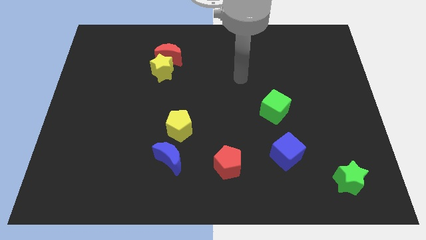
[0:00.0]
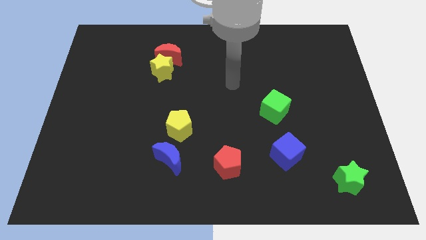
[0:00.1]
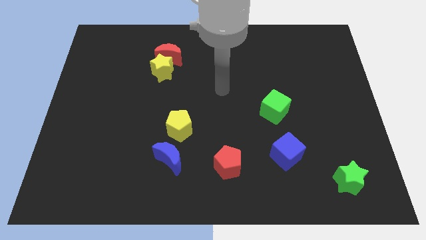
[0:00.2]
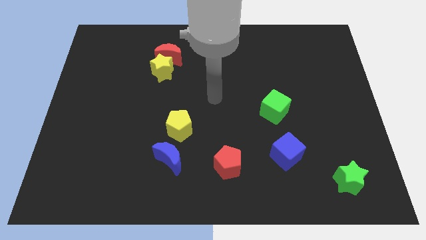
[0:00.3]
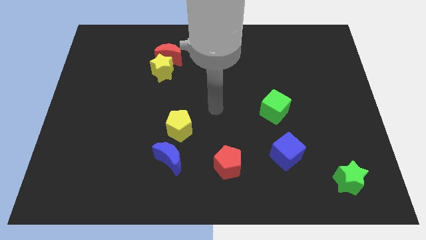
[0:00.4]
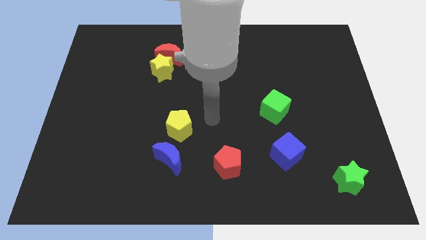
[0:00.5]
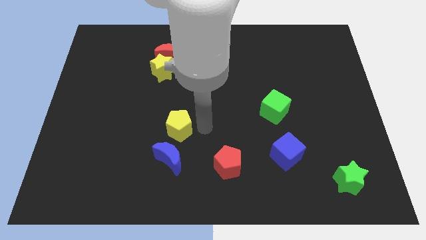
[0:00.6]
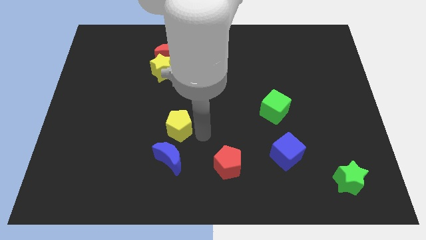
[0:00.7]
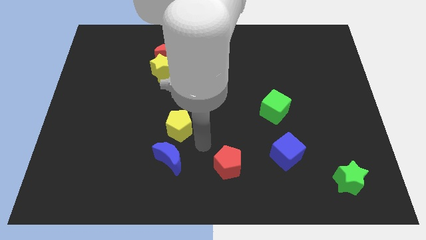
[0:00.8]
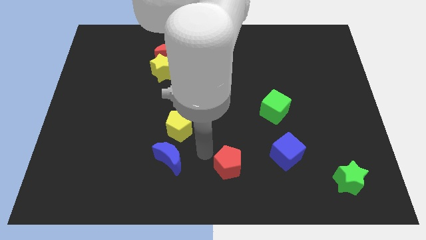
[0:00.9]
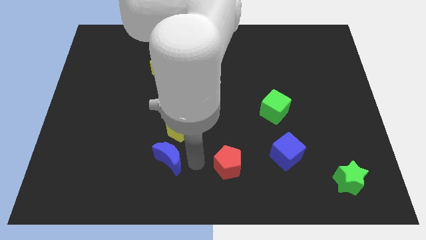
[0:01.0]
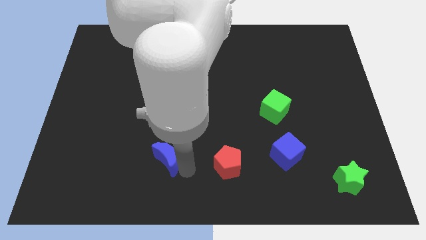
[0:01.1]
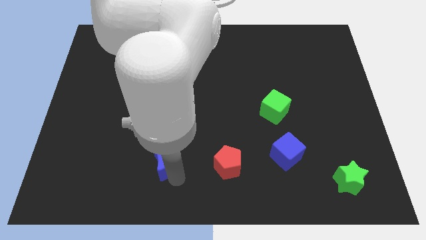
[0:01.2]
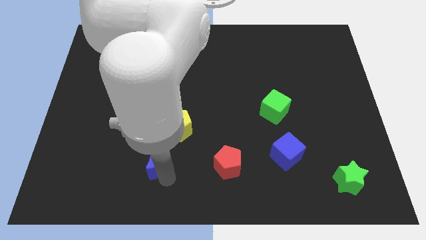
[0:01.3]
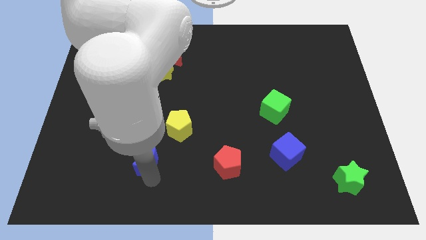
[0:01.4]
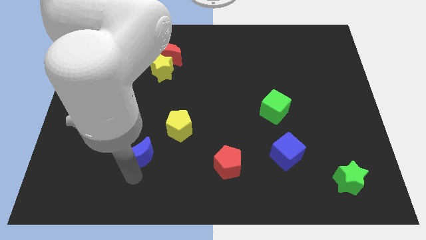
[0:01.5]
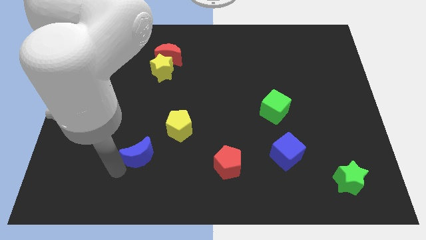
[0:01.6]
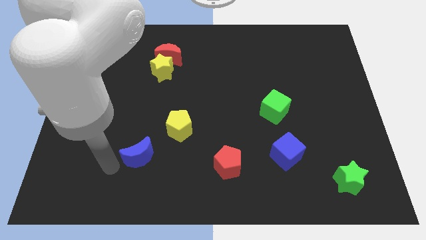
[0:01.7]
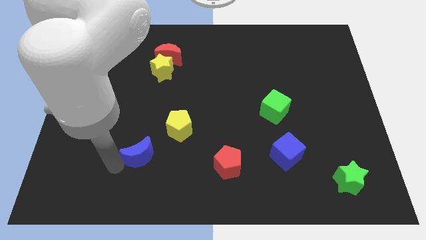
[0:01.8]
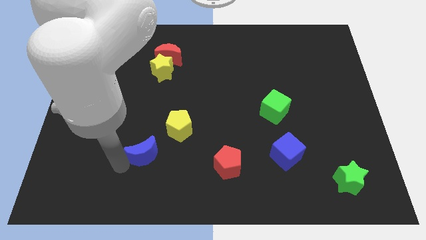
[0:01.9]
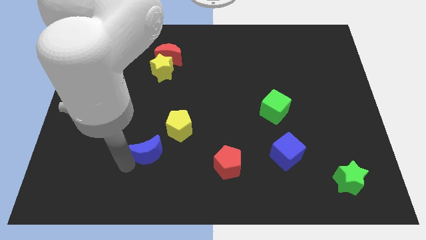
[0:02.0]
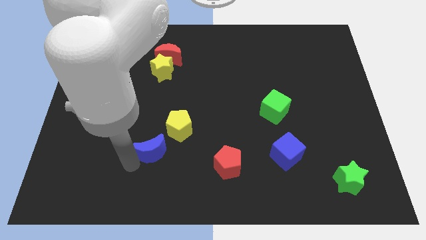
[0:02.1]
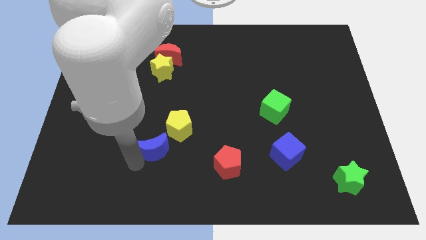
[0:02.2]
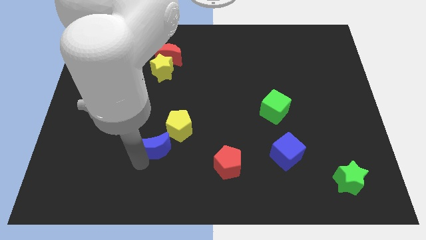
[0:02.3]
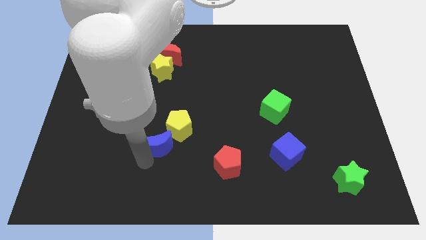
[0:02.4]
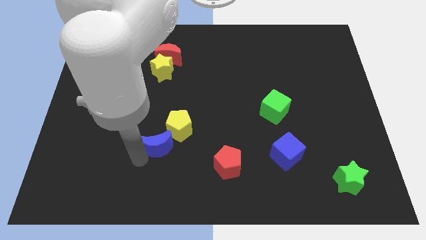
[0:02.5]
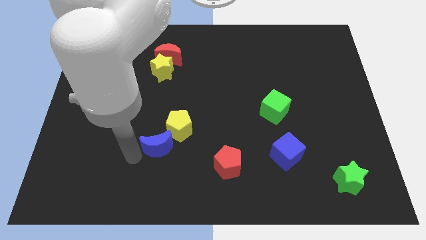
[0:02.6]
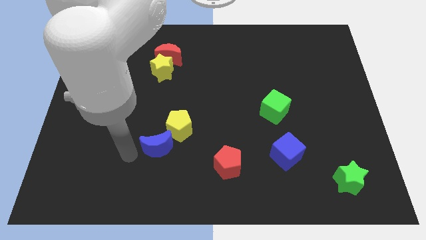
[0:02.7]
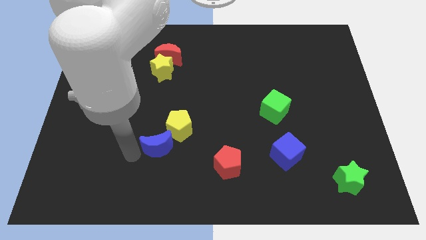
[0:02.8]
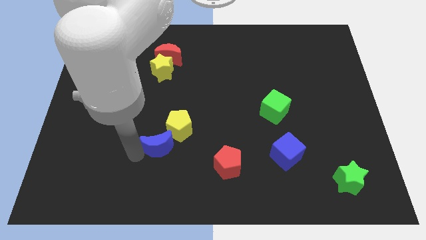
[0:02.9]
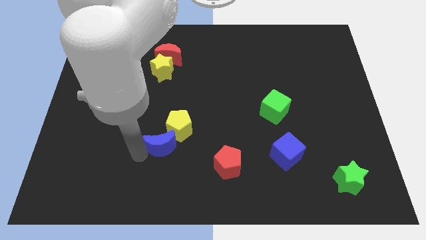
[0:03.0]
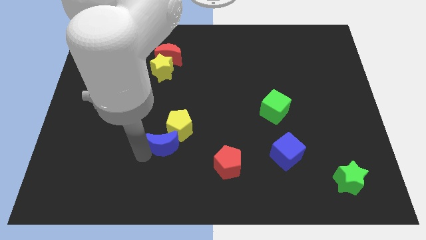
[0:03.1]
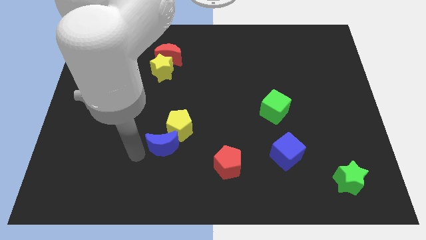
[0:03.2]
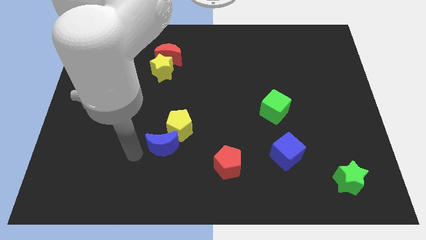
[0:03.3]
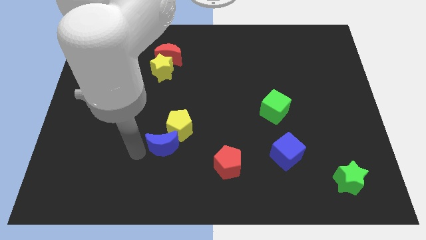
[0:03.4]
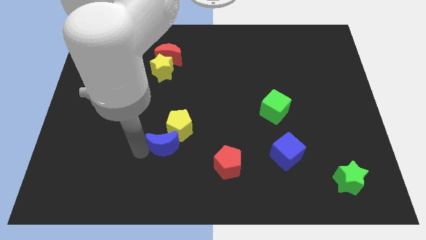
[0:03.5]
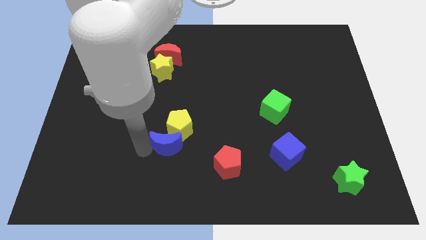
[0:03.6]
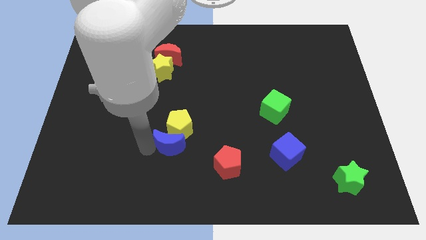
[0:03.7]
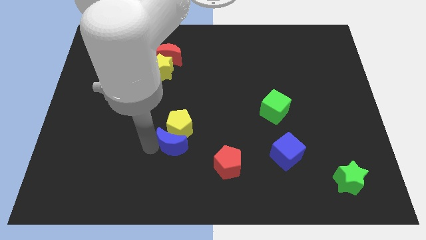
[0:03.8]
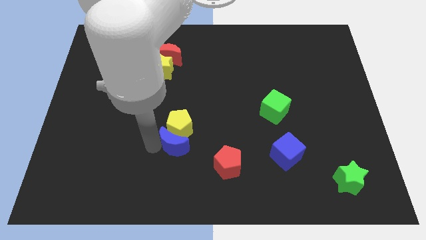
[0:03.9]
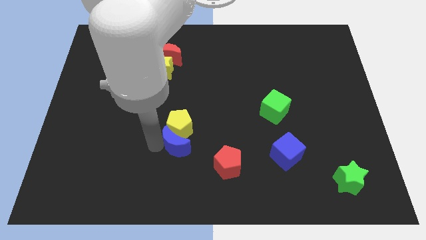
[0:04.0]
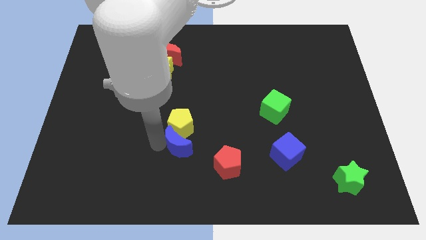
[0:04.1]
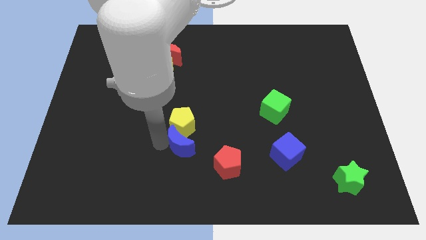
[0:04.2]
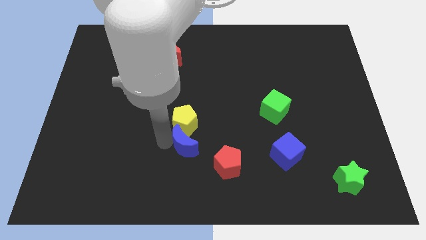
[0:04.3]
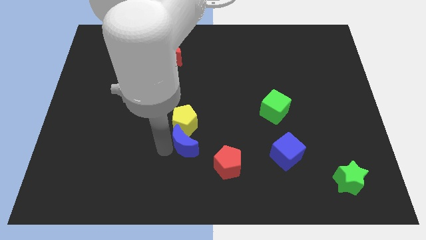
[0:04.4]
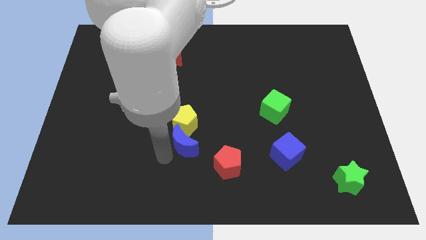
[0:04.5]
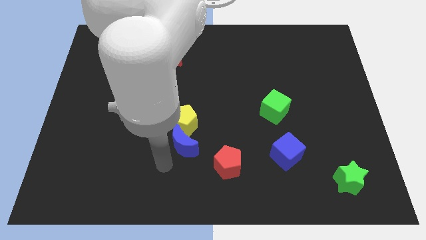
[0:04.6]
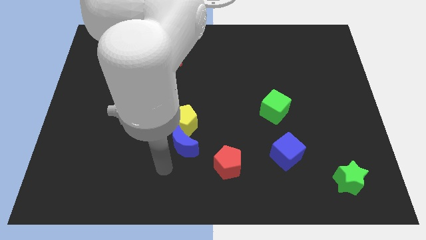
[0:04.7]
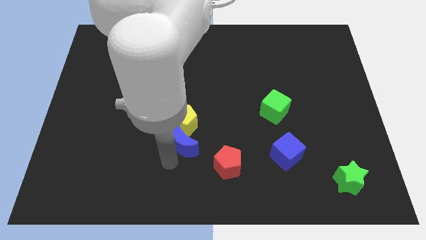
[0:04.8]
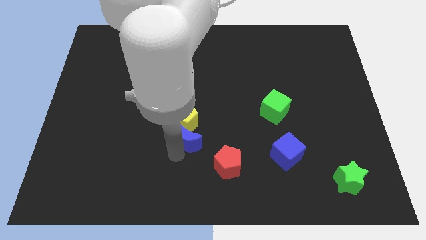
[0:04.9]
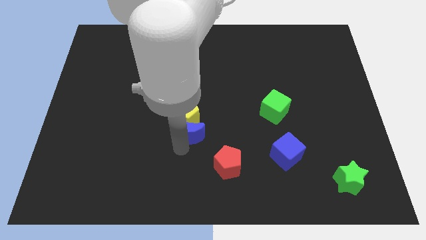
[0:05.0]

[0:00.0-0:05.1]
slide the blue moon a bit diagonally upwards and to the right

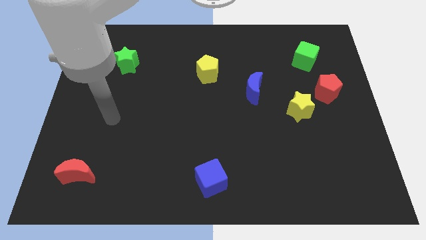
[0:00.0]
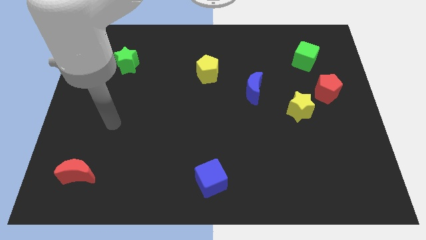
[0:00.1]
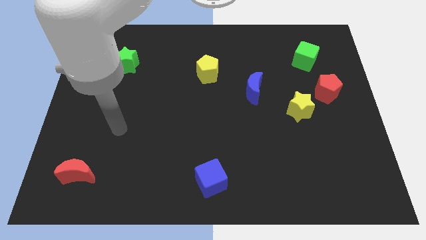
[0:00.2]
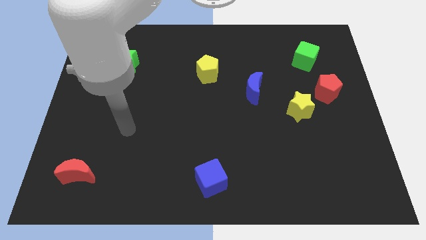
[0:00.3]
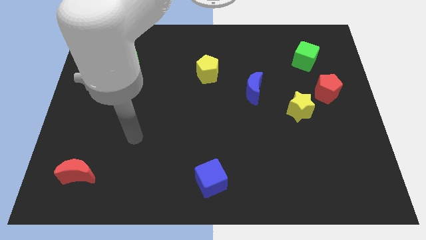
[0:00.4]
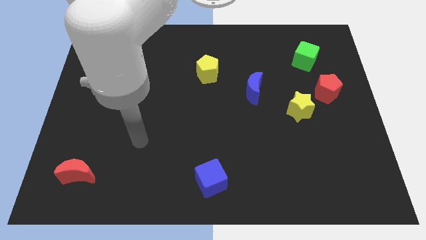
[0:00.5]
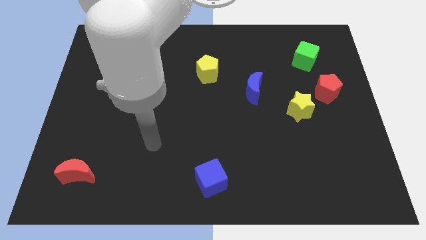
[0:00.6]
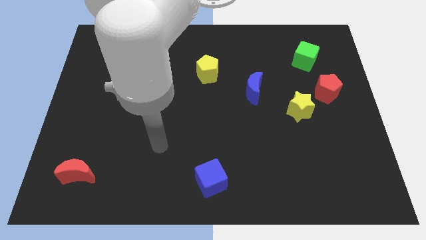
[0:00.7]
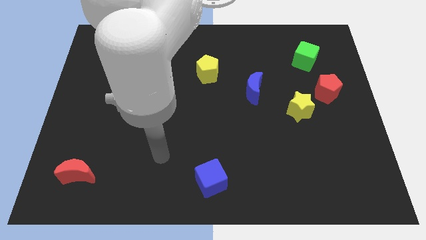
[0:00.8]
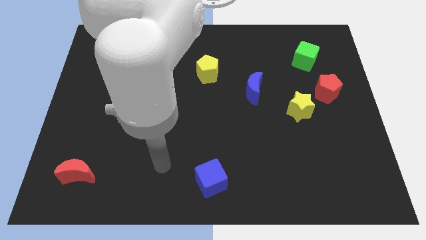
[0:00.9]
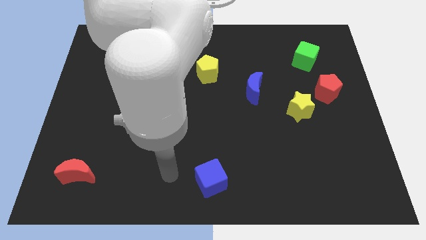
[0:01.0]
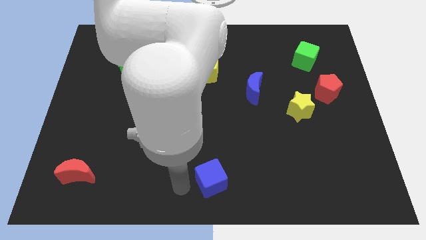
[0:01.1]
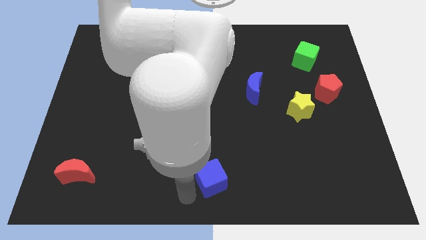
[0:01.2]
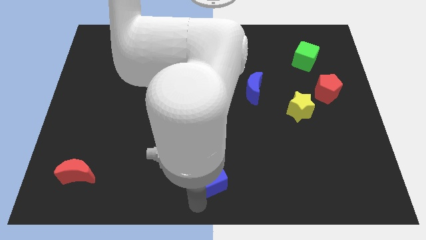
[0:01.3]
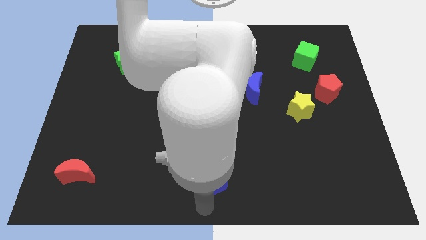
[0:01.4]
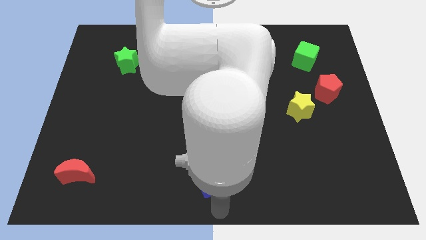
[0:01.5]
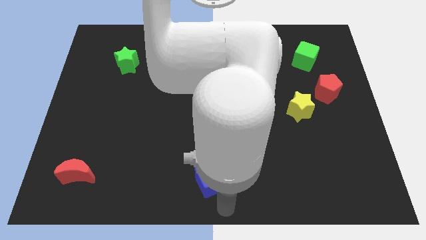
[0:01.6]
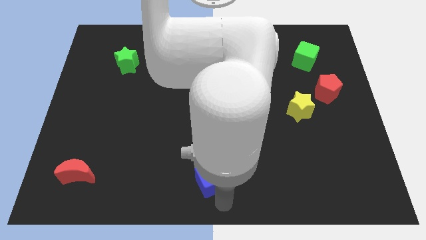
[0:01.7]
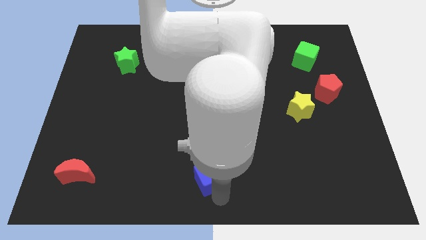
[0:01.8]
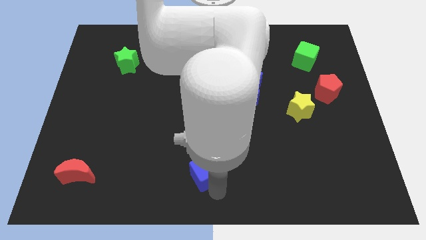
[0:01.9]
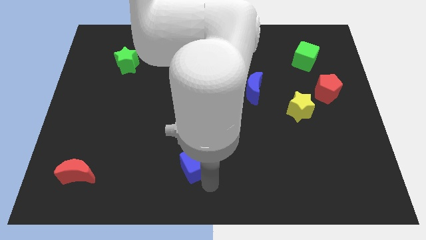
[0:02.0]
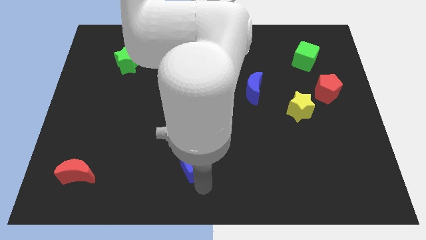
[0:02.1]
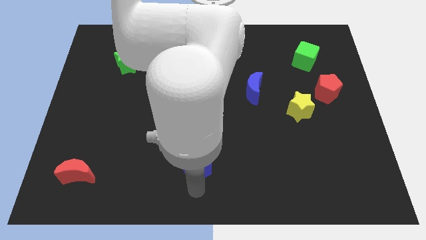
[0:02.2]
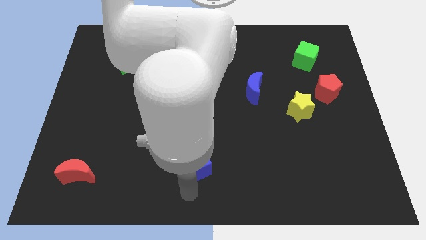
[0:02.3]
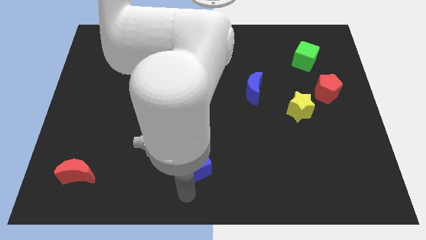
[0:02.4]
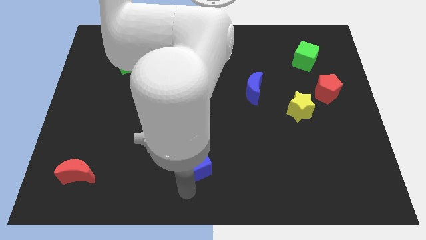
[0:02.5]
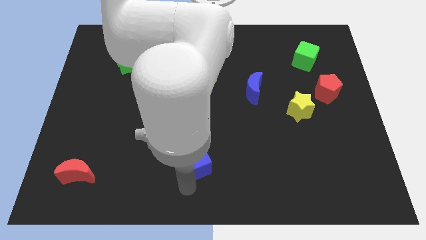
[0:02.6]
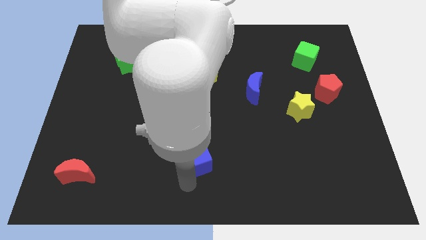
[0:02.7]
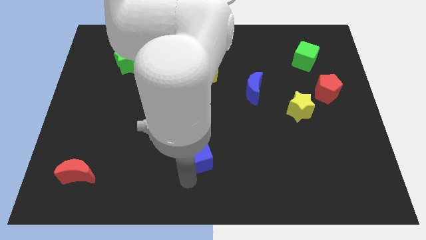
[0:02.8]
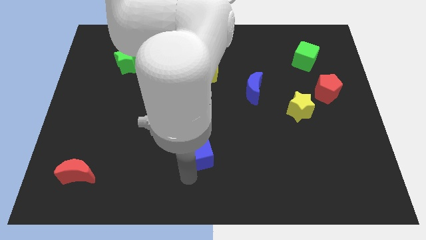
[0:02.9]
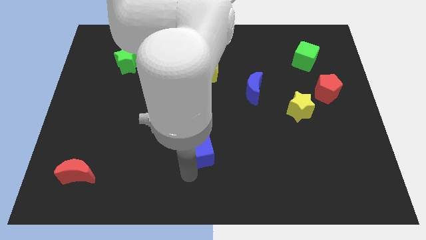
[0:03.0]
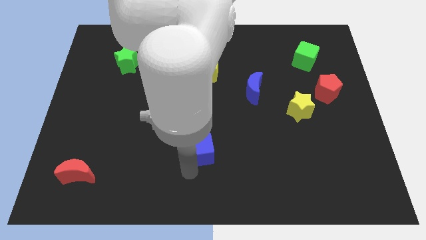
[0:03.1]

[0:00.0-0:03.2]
slightly slide the blue cube upwards
